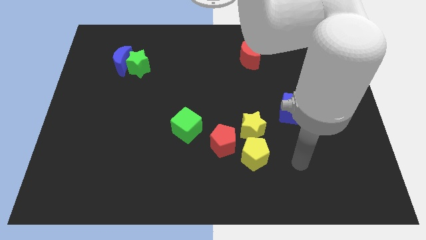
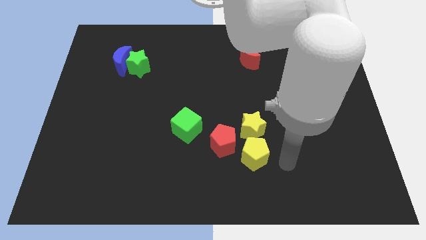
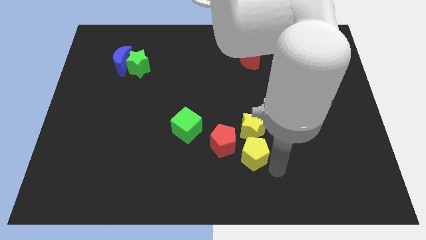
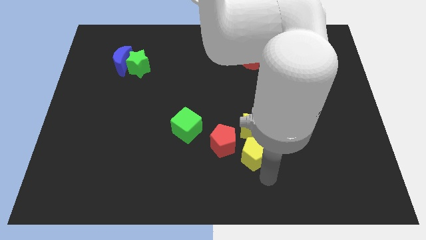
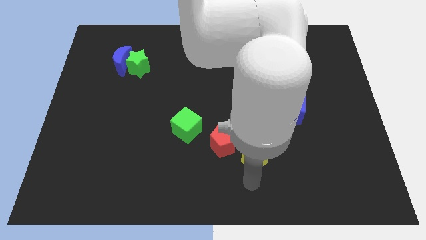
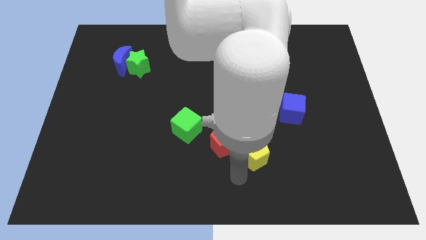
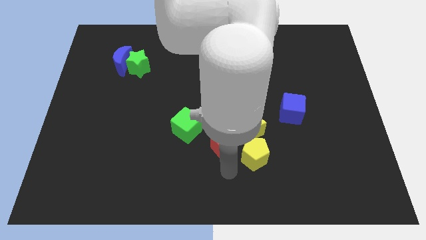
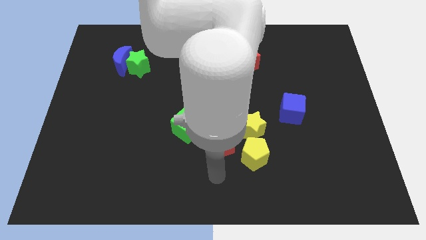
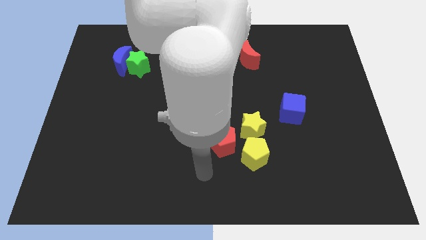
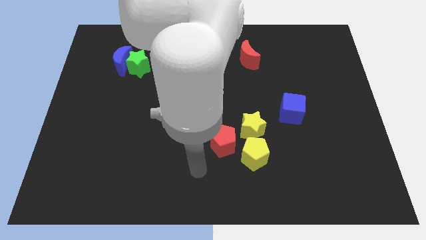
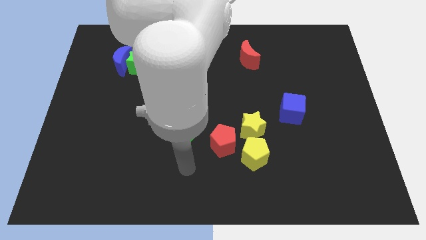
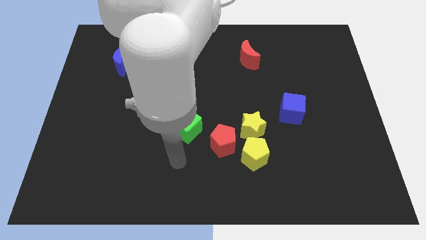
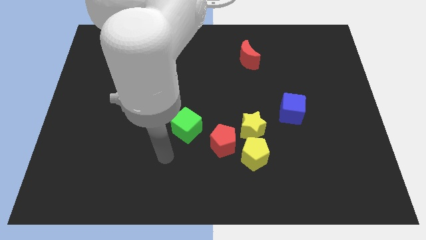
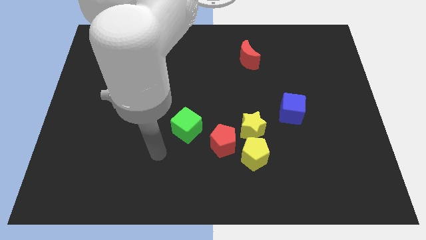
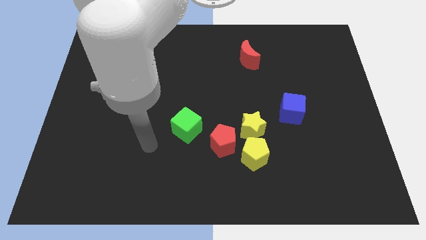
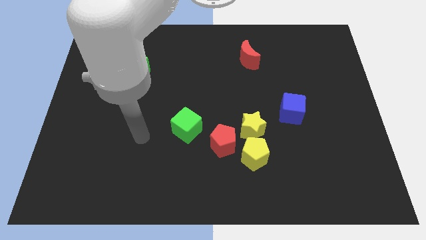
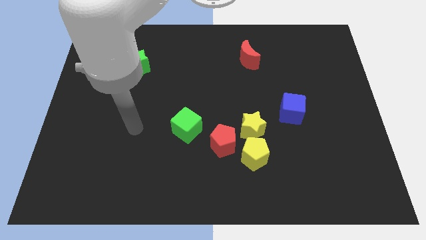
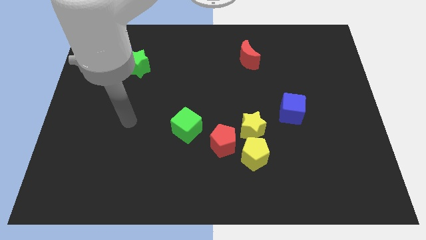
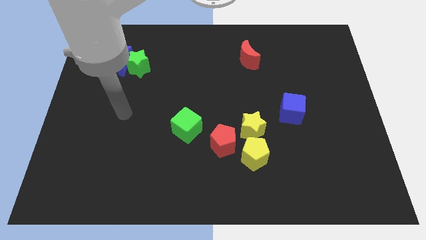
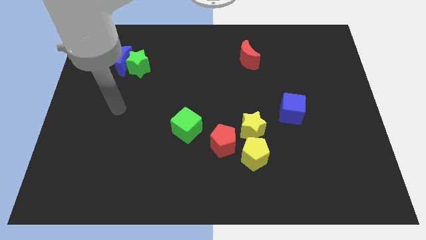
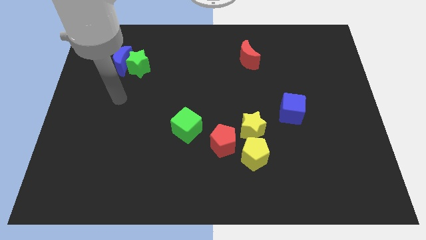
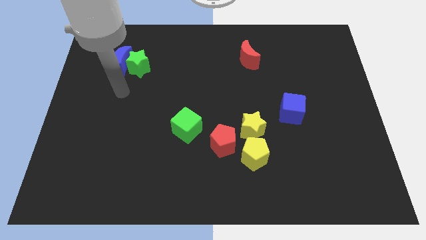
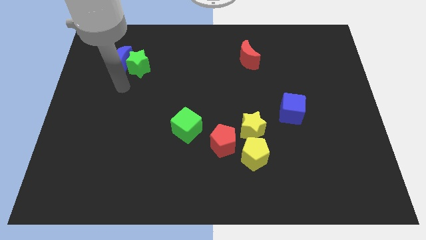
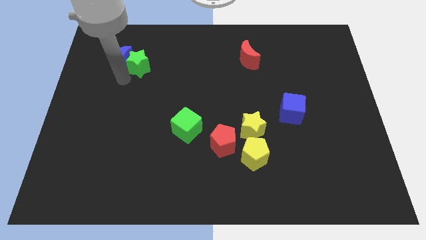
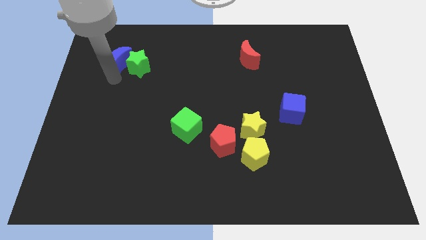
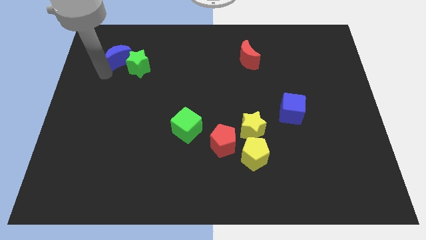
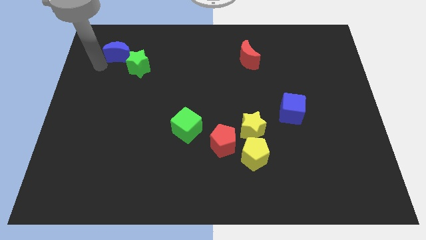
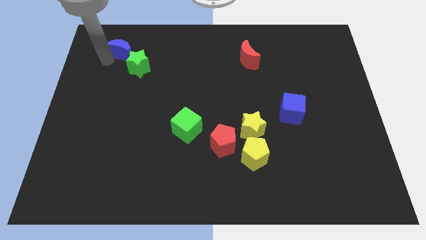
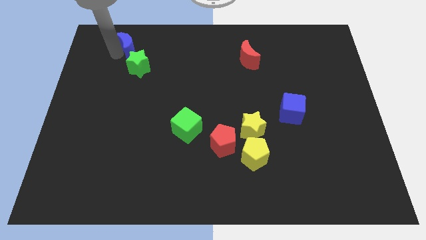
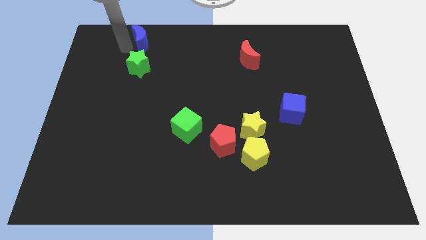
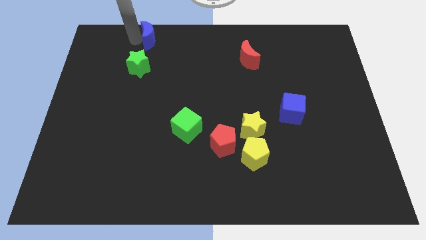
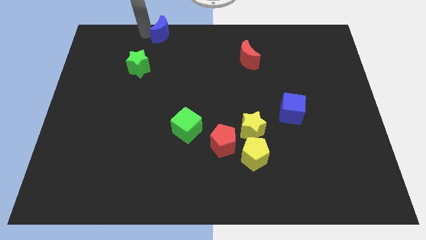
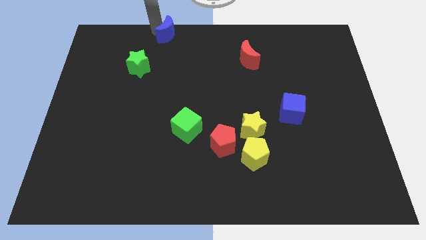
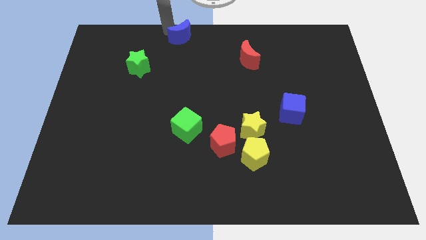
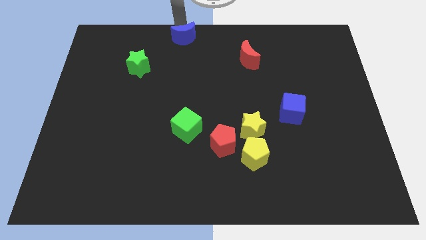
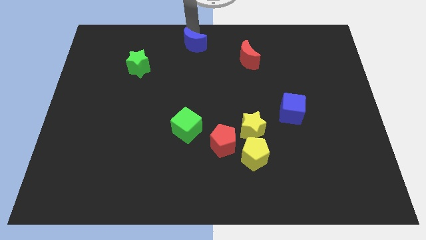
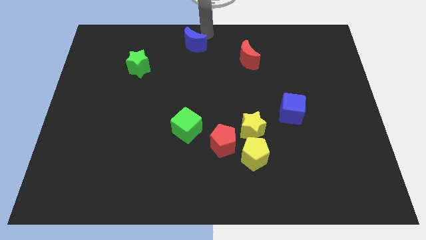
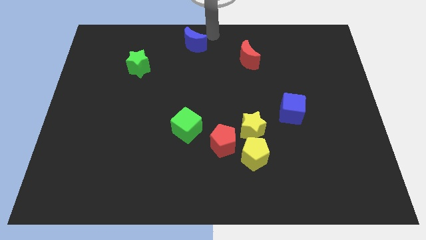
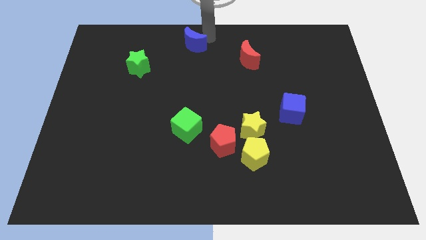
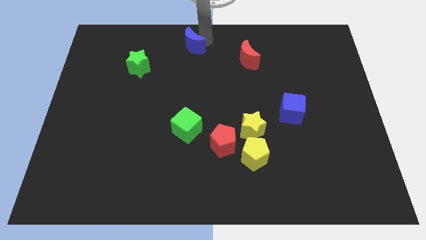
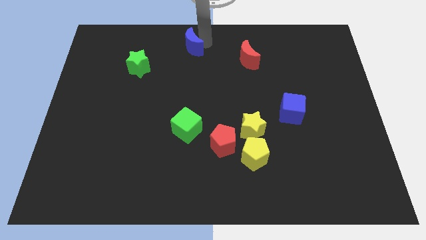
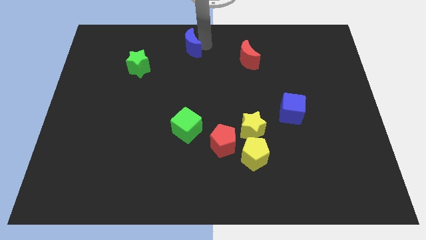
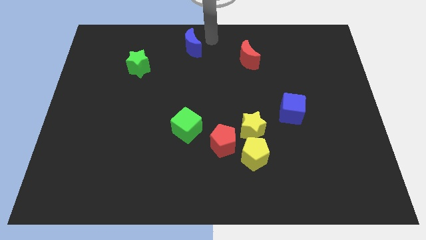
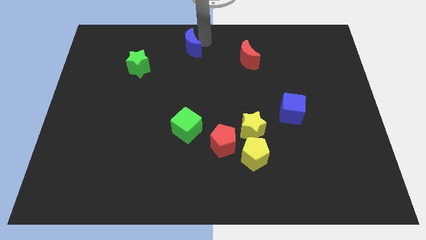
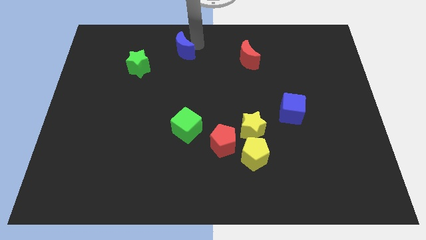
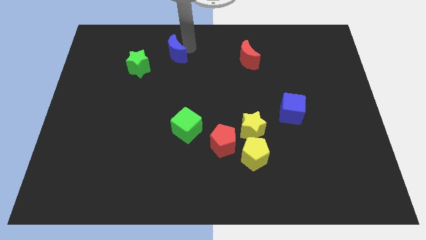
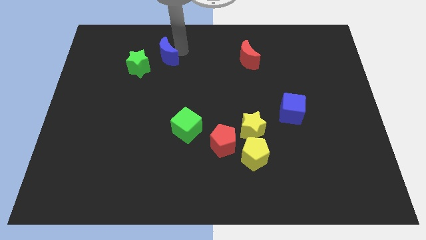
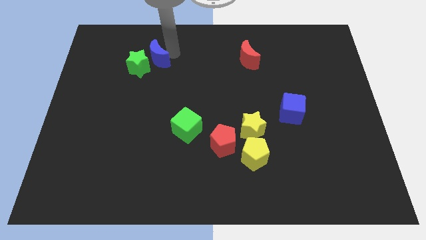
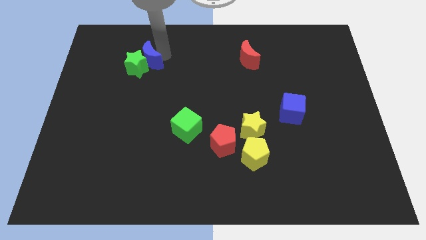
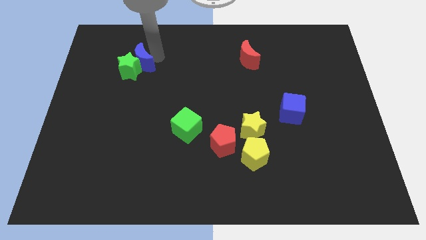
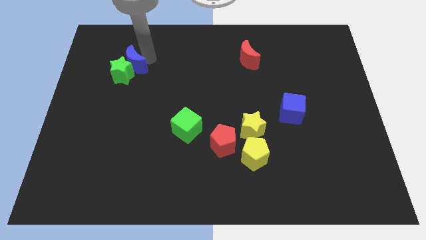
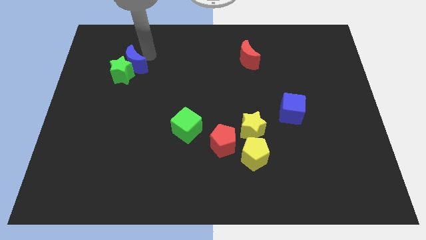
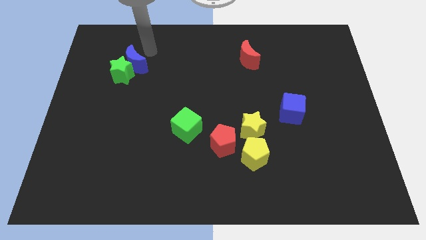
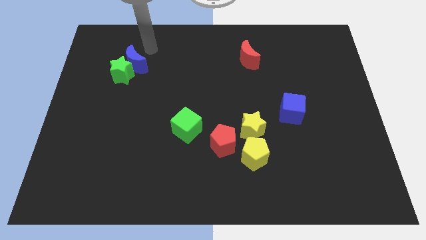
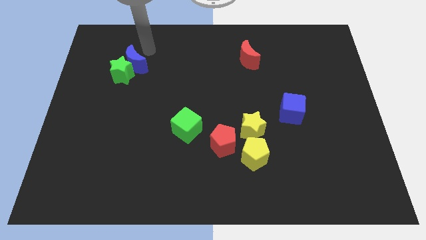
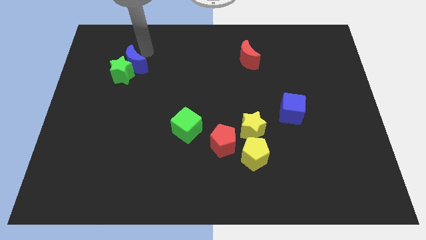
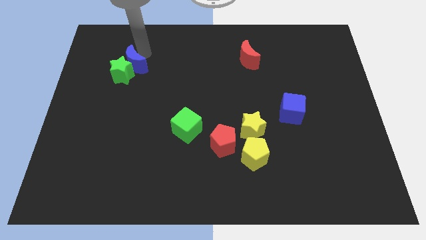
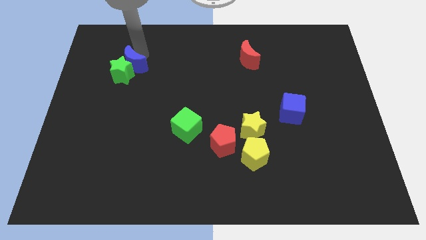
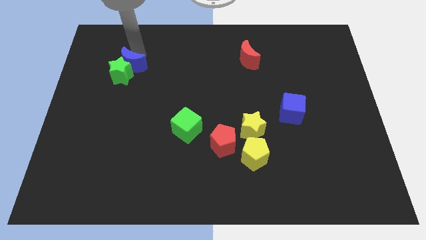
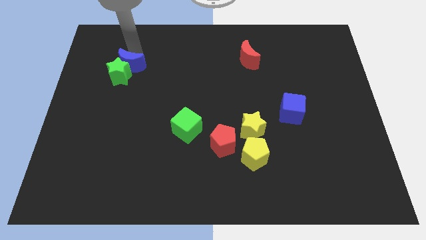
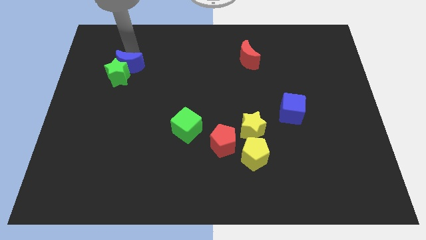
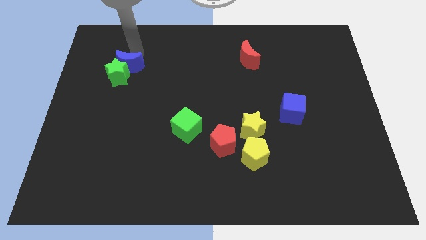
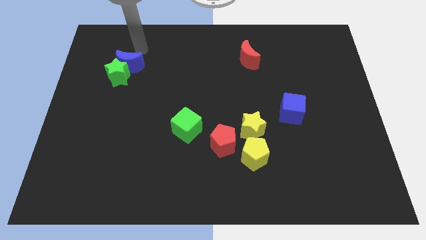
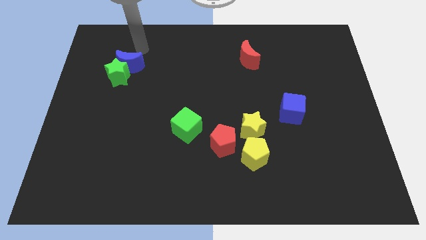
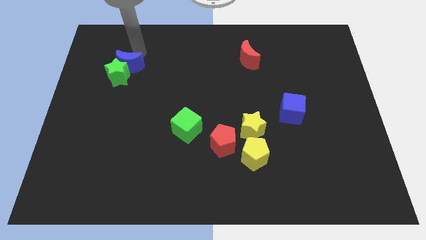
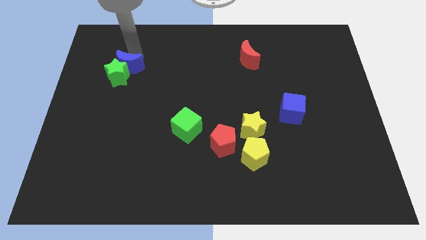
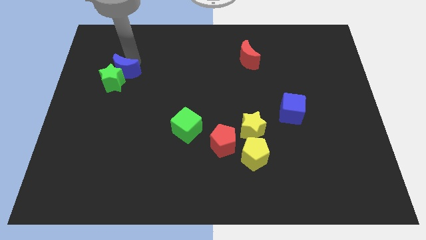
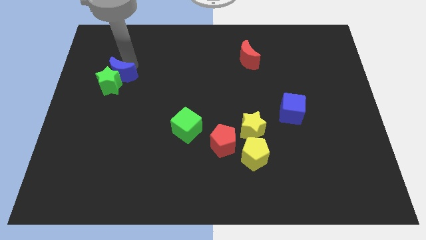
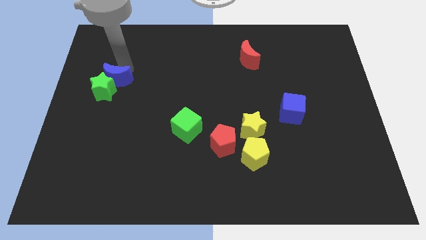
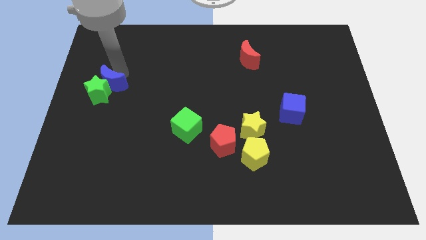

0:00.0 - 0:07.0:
slide the blue moon a little downwards

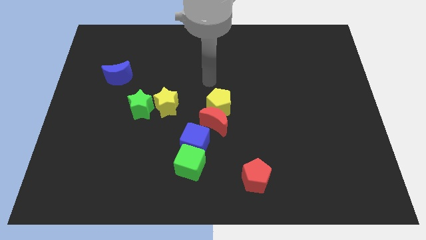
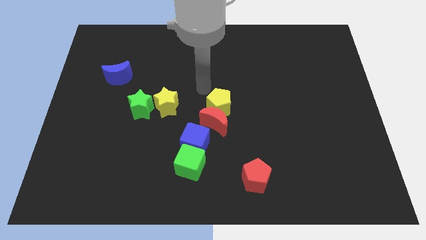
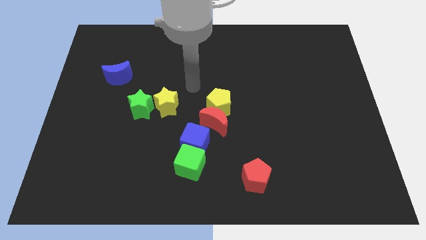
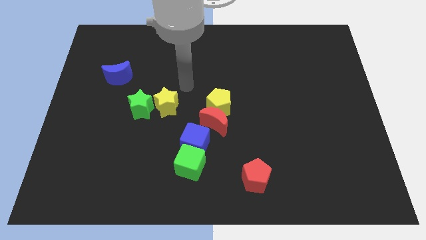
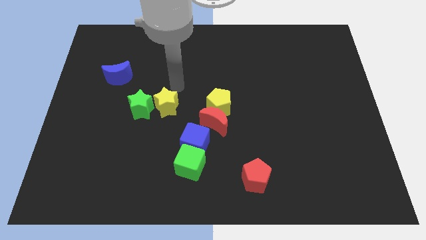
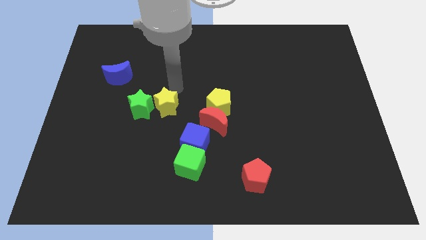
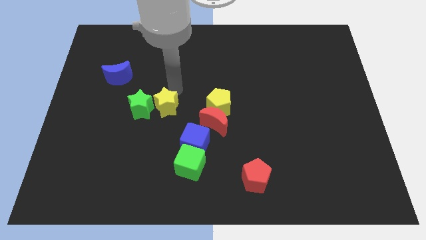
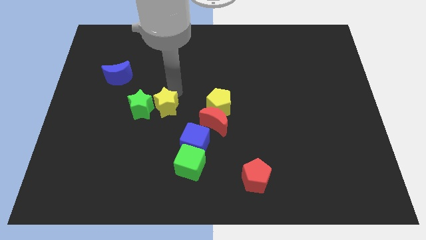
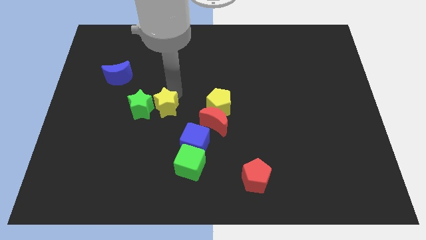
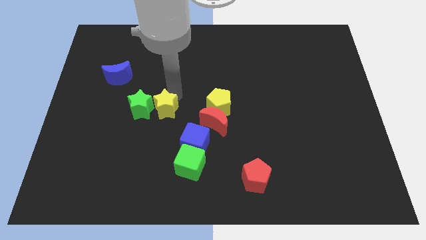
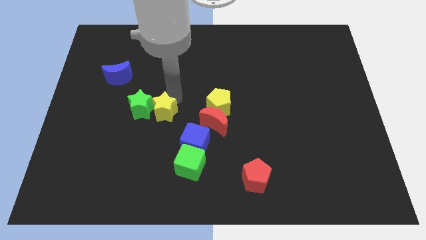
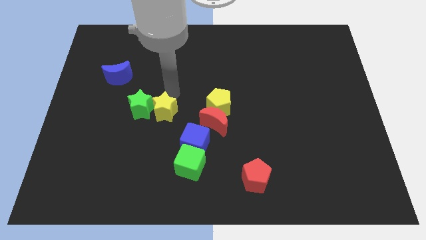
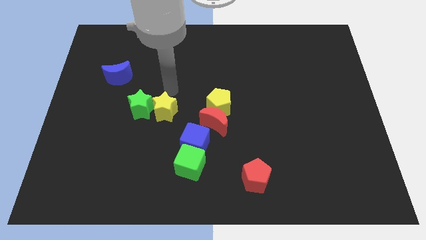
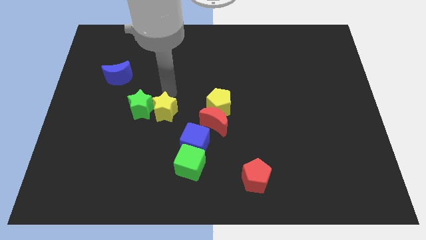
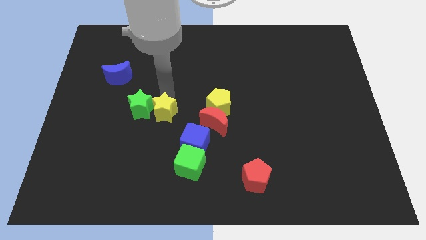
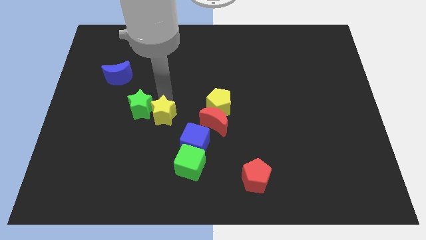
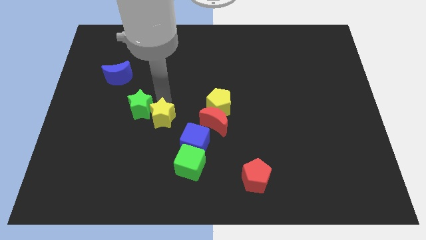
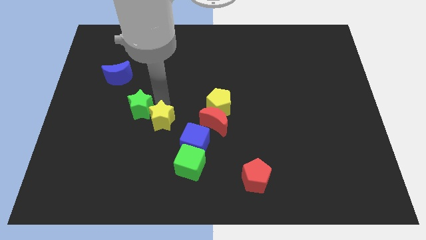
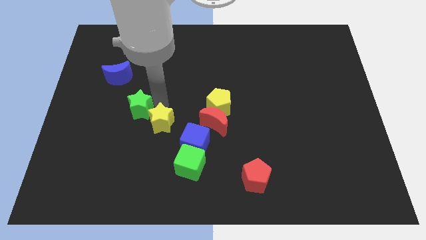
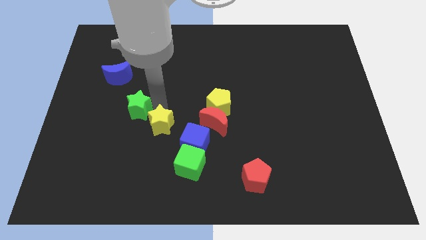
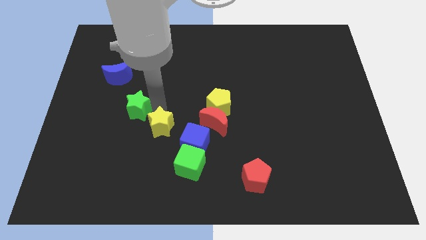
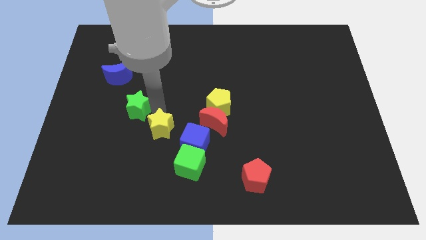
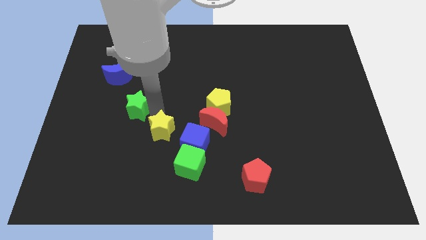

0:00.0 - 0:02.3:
slide the yellow star downwards a little
